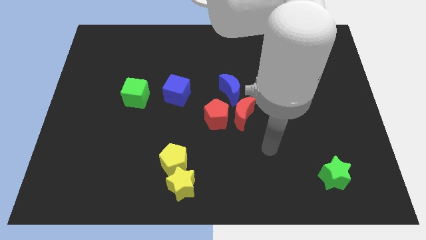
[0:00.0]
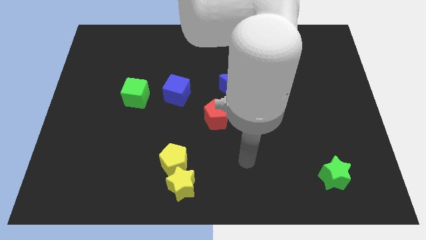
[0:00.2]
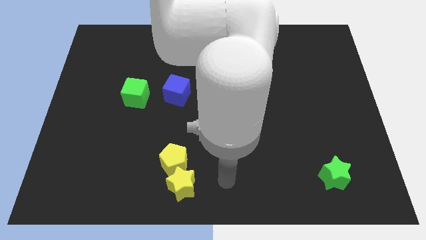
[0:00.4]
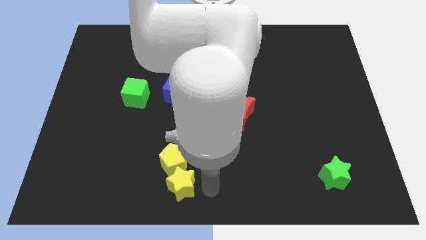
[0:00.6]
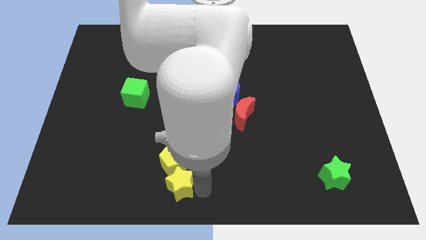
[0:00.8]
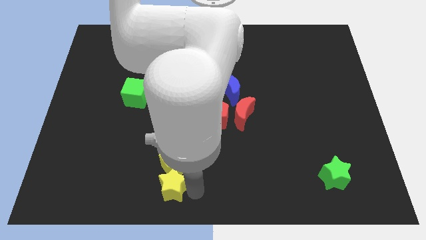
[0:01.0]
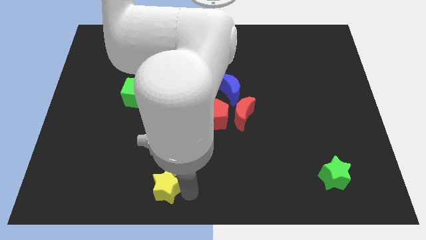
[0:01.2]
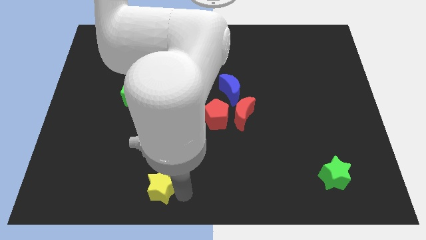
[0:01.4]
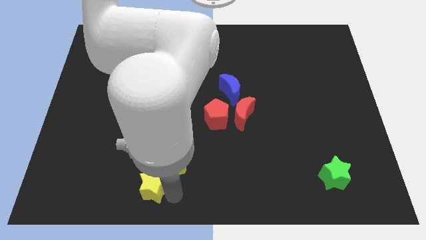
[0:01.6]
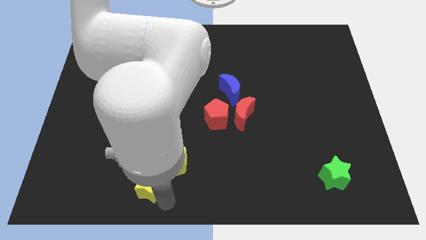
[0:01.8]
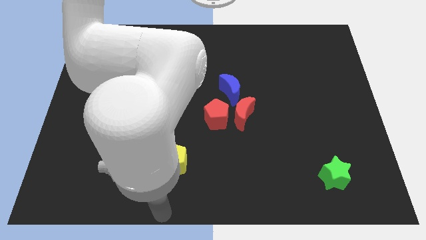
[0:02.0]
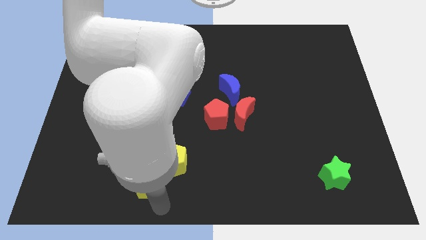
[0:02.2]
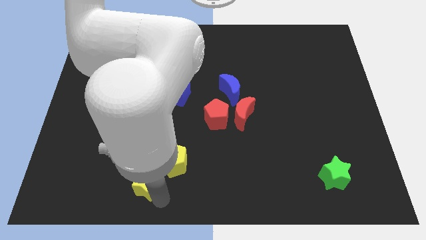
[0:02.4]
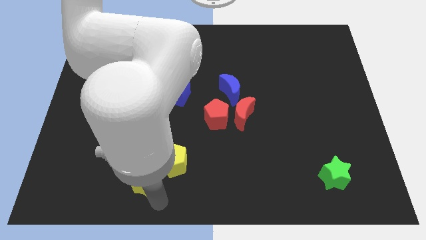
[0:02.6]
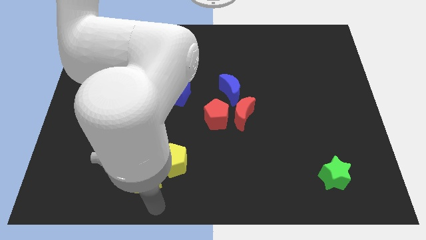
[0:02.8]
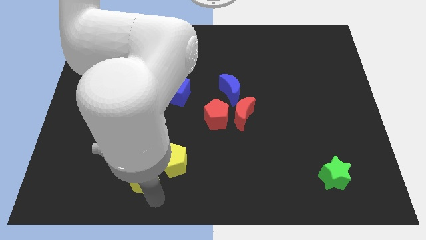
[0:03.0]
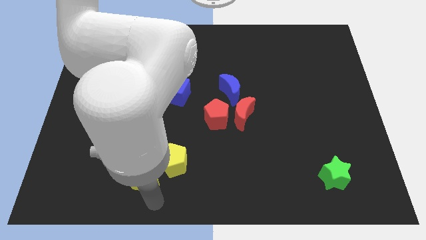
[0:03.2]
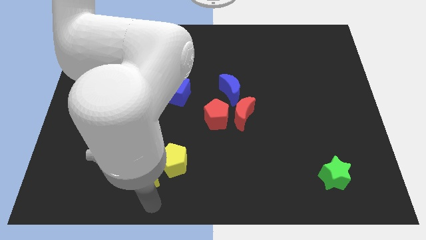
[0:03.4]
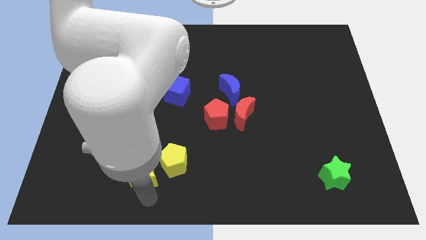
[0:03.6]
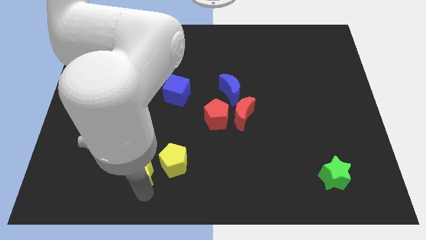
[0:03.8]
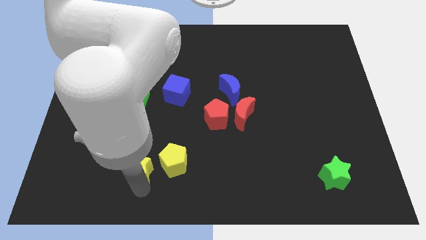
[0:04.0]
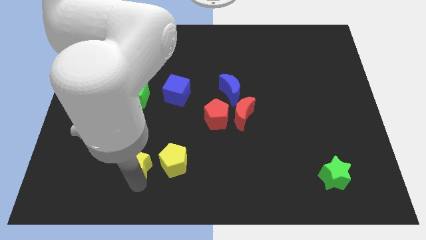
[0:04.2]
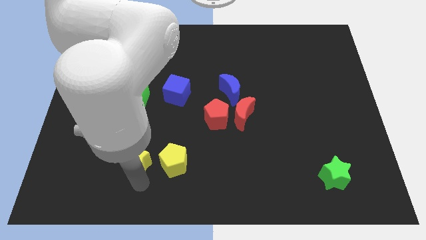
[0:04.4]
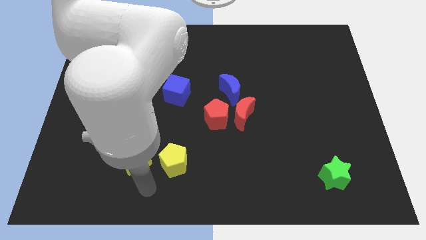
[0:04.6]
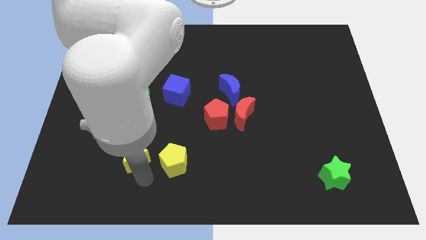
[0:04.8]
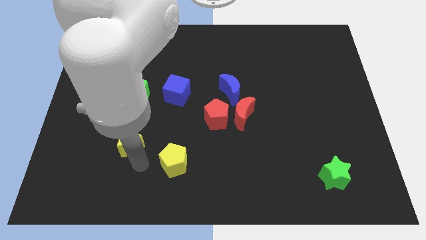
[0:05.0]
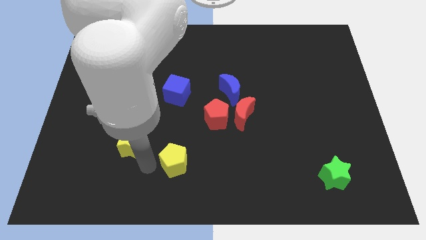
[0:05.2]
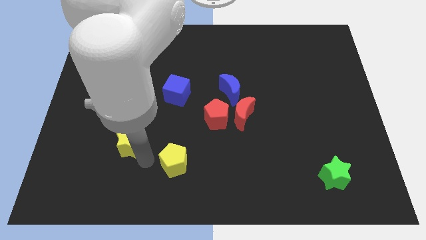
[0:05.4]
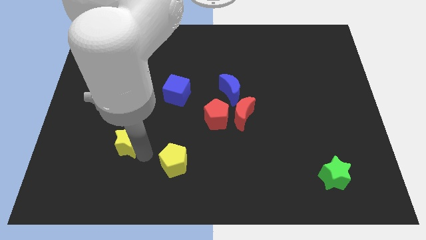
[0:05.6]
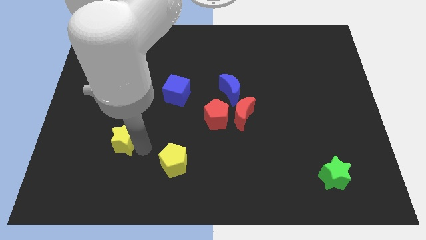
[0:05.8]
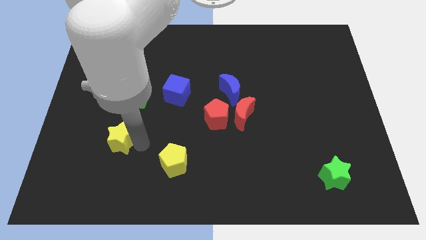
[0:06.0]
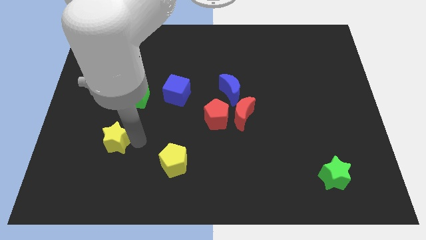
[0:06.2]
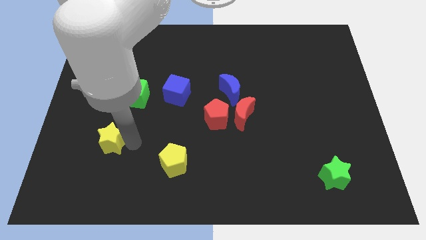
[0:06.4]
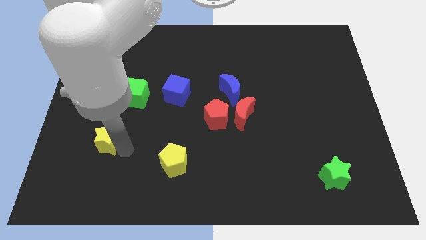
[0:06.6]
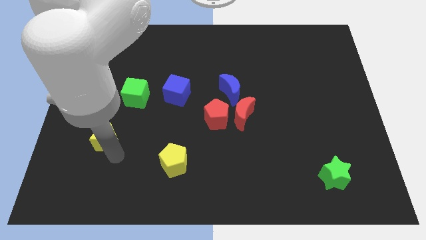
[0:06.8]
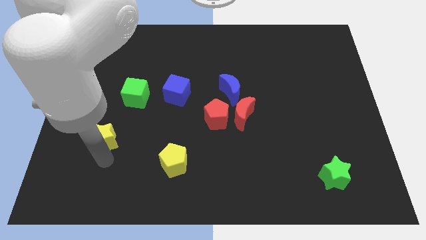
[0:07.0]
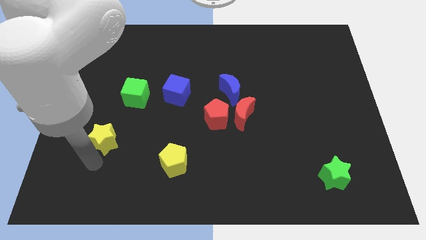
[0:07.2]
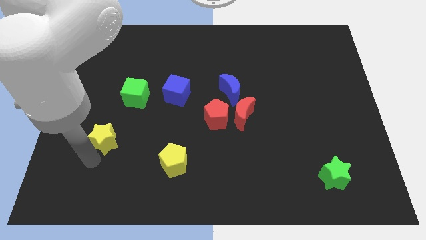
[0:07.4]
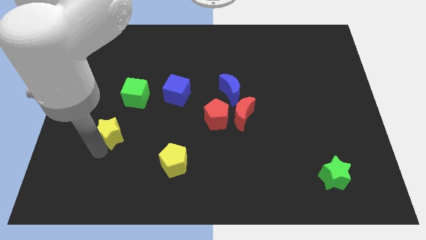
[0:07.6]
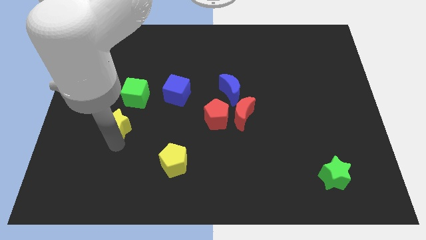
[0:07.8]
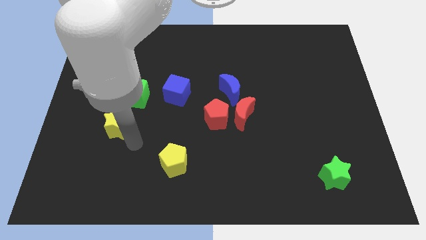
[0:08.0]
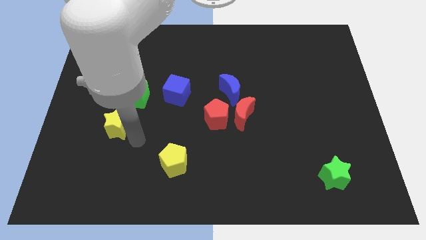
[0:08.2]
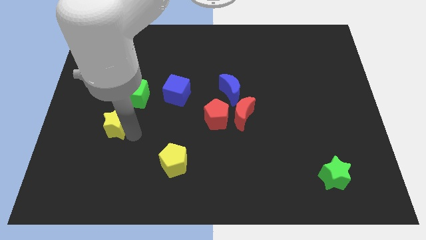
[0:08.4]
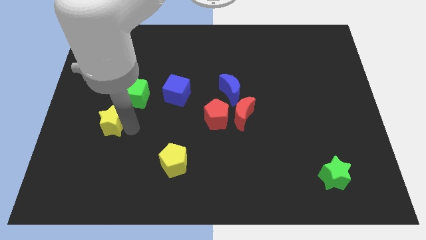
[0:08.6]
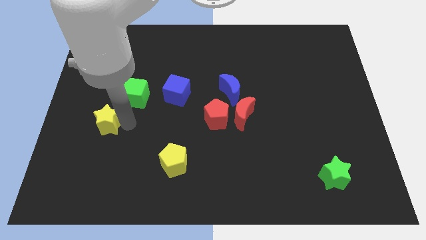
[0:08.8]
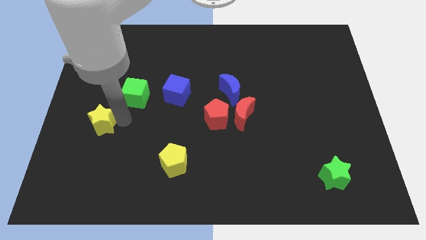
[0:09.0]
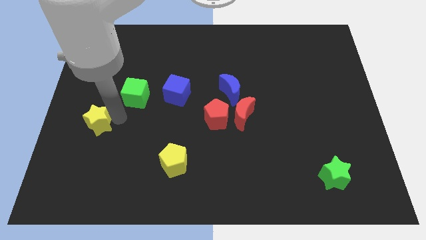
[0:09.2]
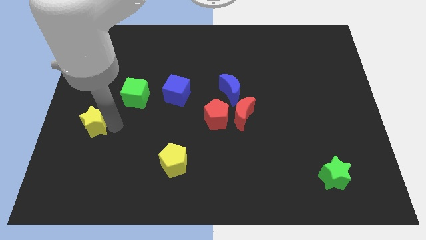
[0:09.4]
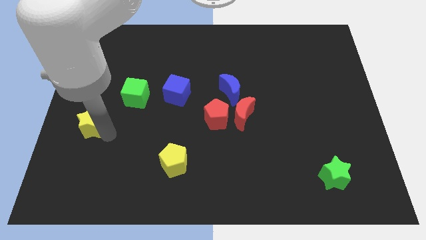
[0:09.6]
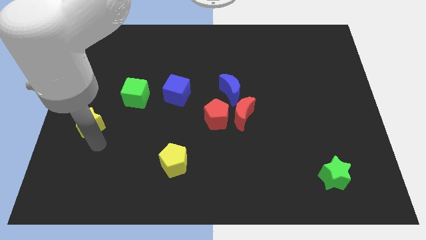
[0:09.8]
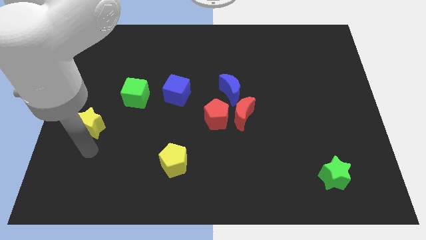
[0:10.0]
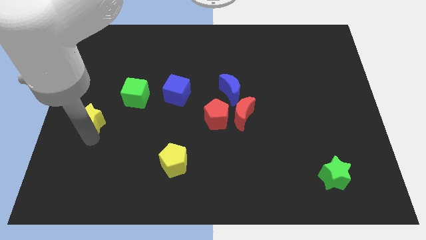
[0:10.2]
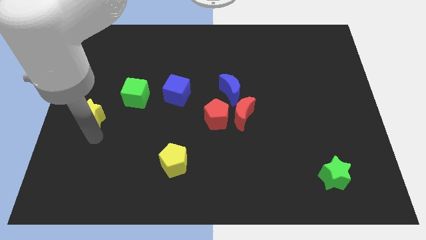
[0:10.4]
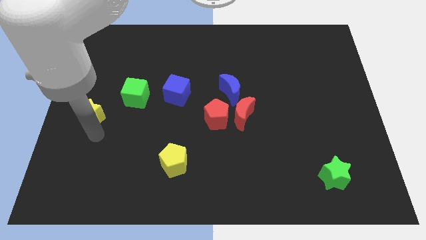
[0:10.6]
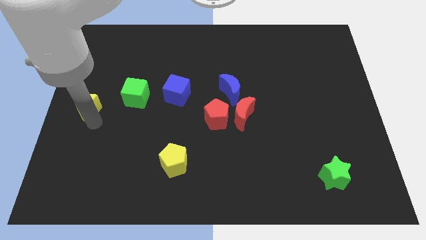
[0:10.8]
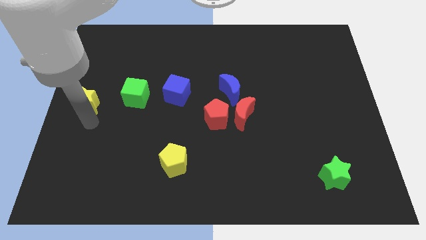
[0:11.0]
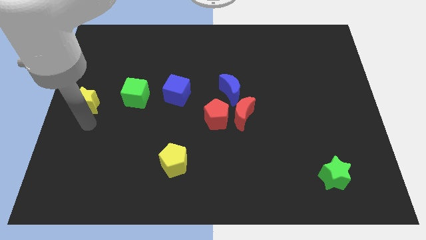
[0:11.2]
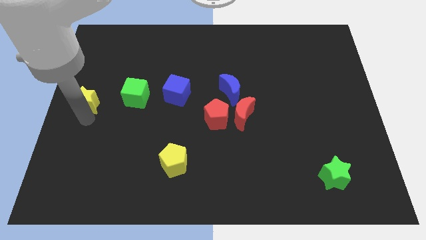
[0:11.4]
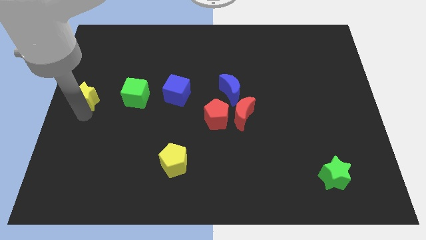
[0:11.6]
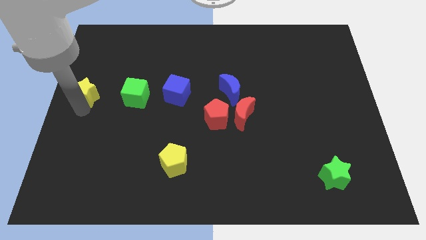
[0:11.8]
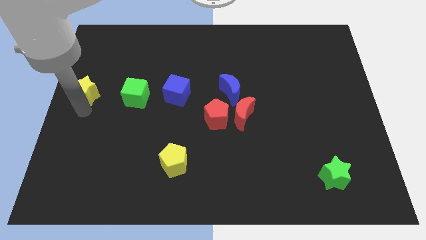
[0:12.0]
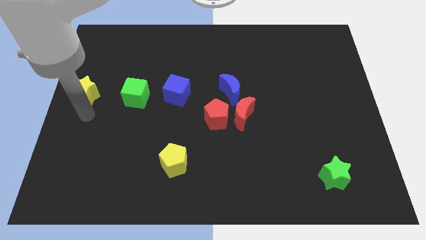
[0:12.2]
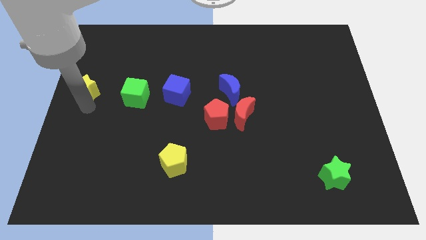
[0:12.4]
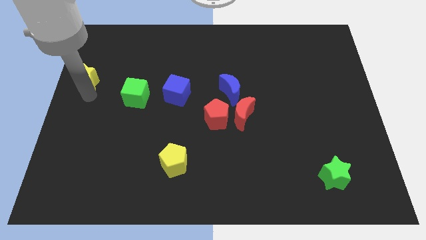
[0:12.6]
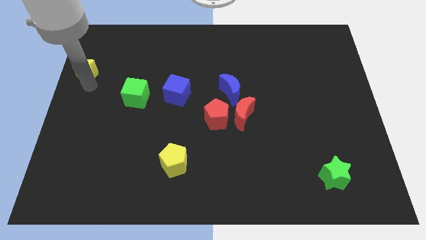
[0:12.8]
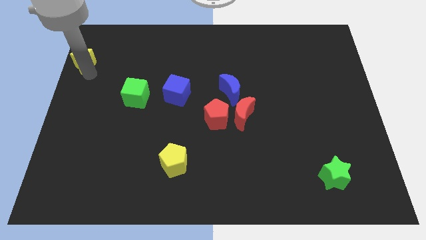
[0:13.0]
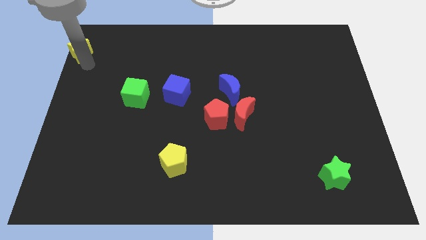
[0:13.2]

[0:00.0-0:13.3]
slide the yellow star to the upper left corner
